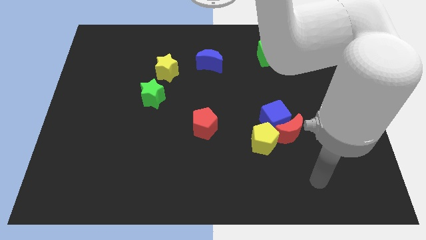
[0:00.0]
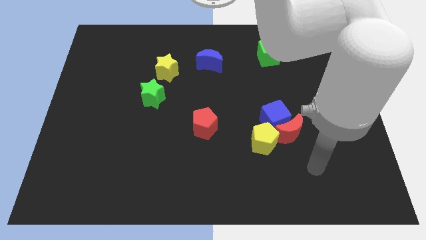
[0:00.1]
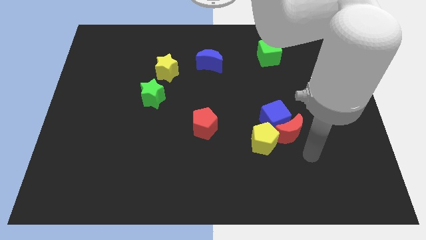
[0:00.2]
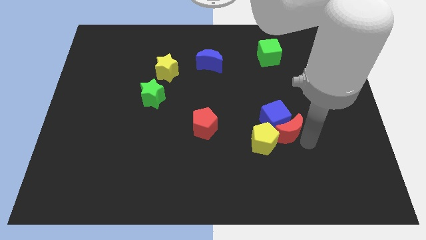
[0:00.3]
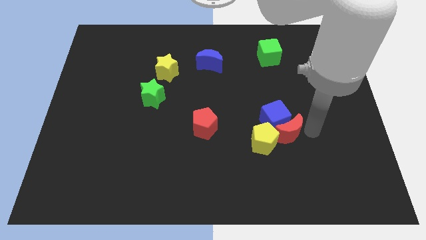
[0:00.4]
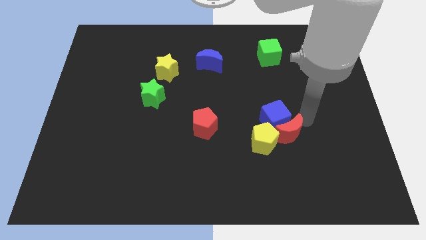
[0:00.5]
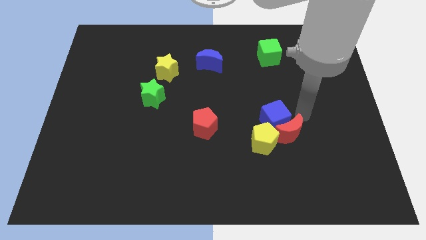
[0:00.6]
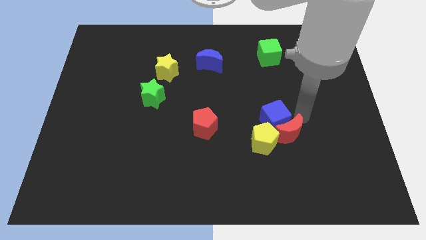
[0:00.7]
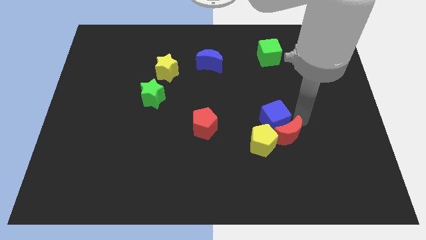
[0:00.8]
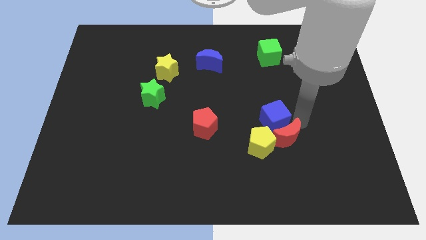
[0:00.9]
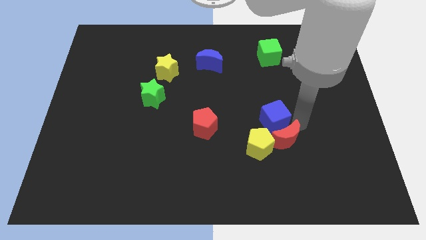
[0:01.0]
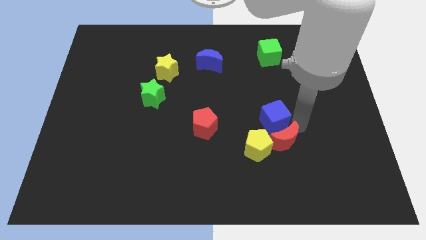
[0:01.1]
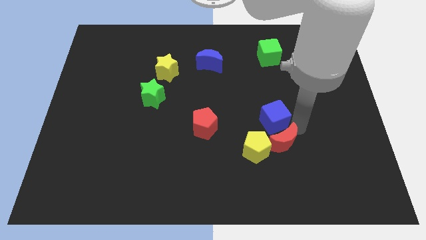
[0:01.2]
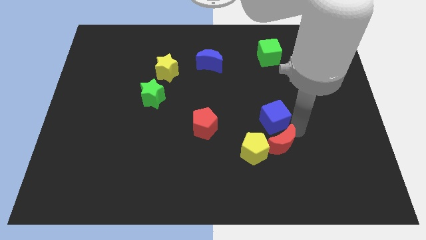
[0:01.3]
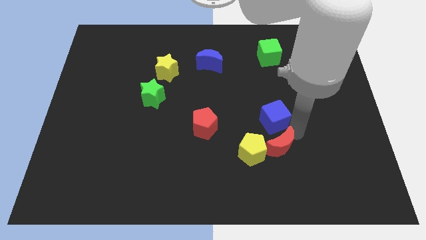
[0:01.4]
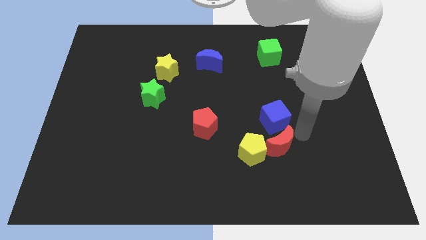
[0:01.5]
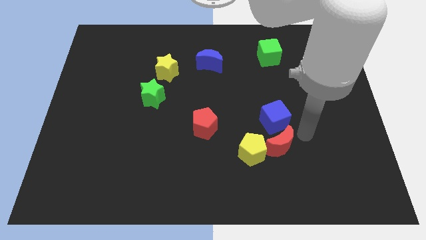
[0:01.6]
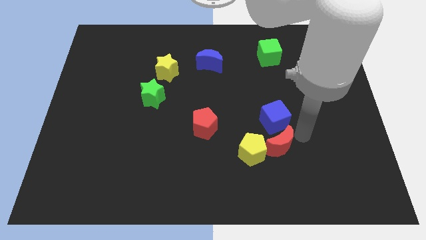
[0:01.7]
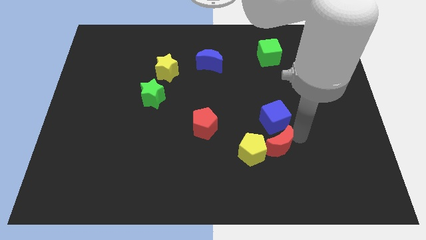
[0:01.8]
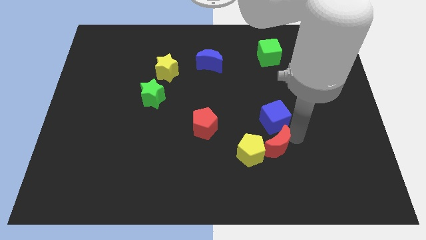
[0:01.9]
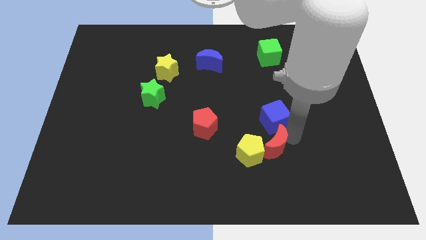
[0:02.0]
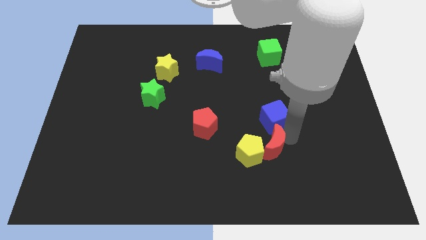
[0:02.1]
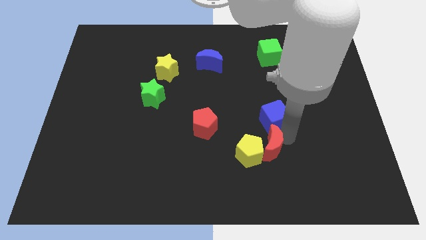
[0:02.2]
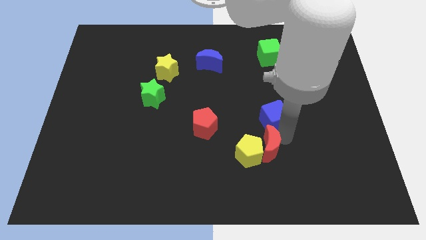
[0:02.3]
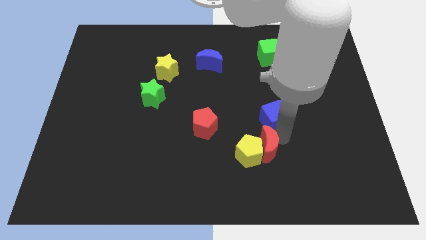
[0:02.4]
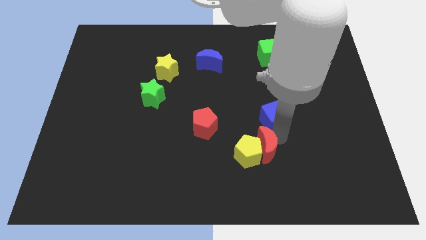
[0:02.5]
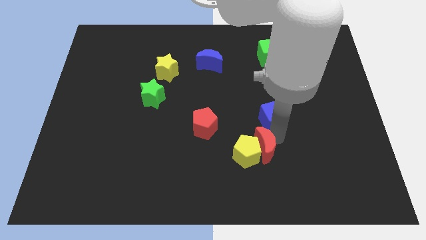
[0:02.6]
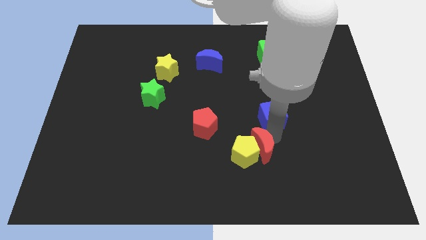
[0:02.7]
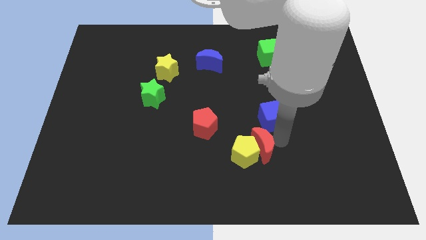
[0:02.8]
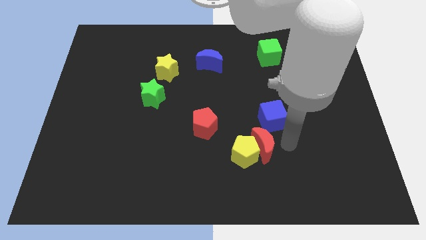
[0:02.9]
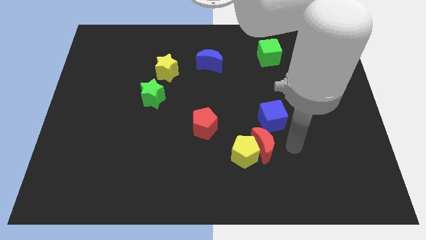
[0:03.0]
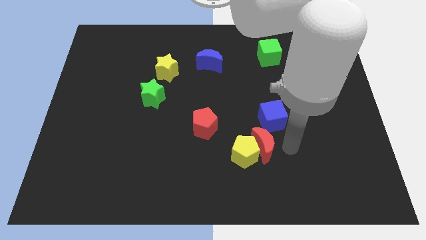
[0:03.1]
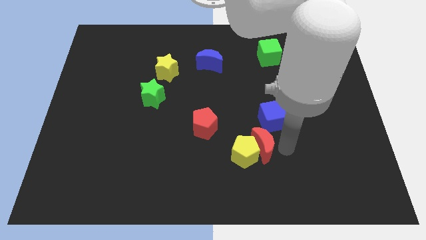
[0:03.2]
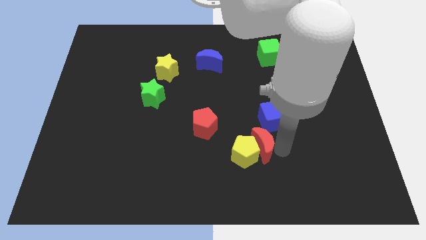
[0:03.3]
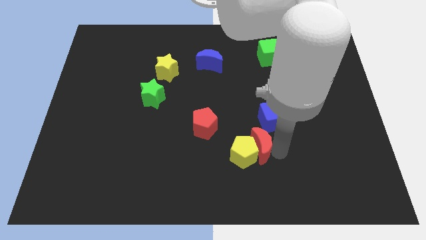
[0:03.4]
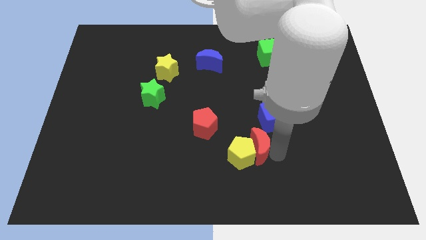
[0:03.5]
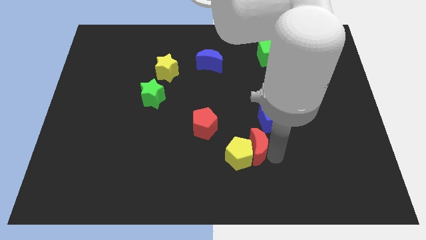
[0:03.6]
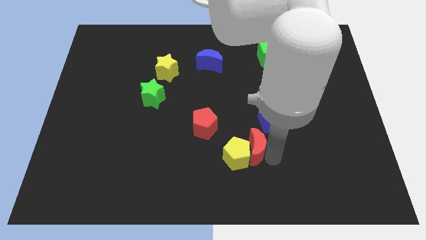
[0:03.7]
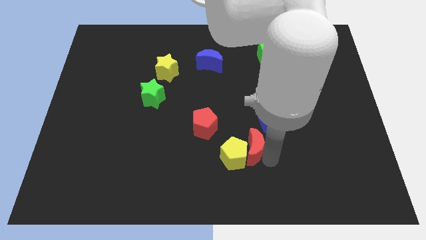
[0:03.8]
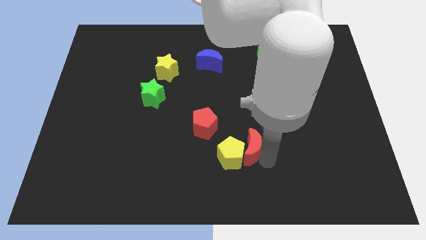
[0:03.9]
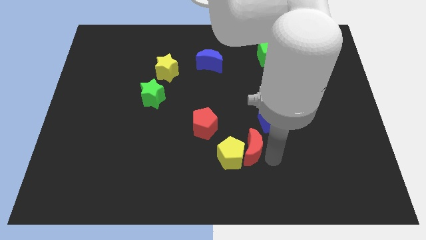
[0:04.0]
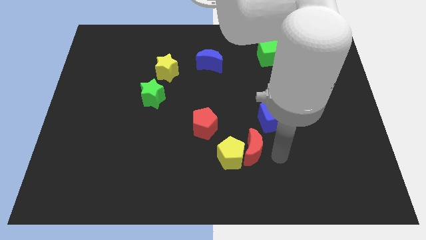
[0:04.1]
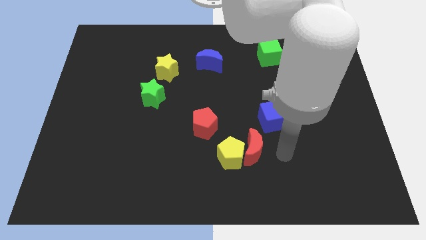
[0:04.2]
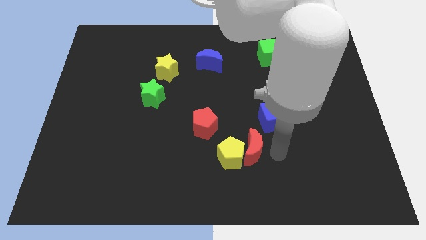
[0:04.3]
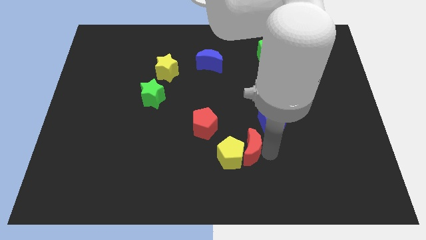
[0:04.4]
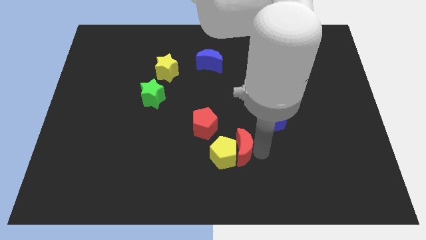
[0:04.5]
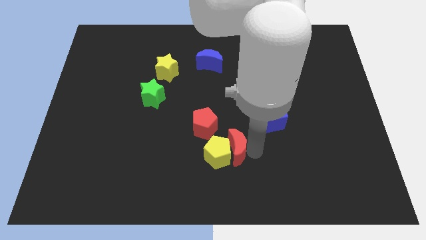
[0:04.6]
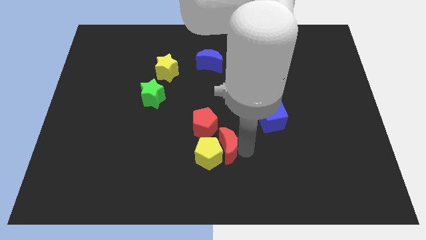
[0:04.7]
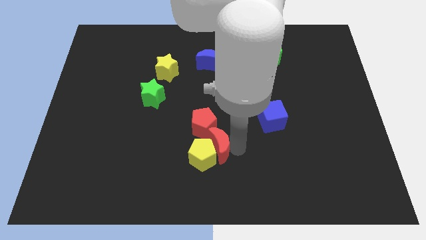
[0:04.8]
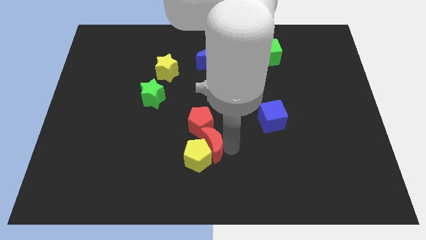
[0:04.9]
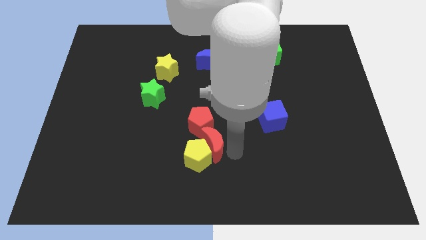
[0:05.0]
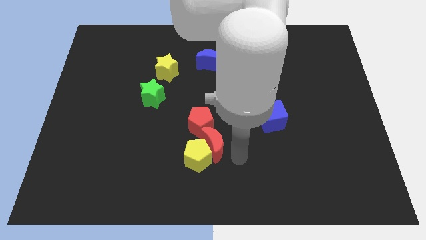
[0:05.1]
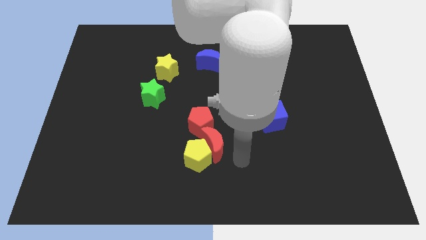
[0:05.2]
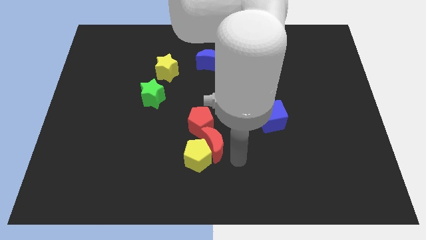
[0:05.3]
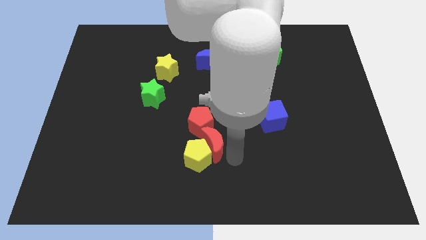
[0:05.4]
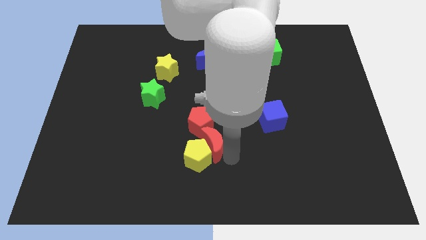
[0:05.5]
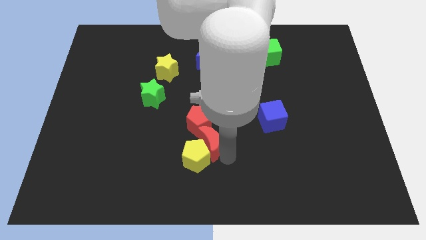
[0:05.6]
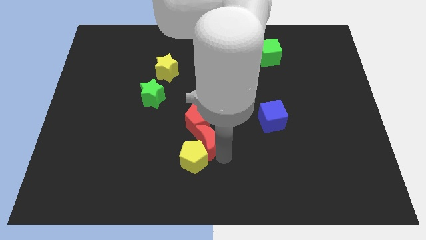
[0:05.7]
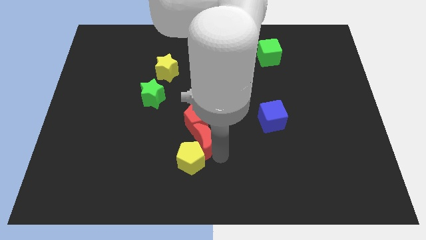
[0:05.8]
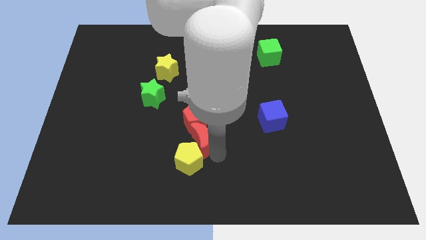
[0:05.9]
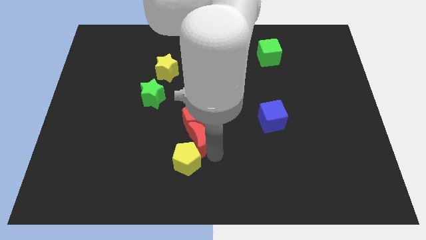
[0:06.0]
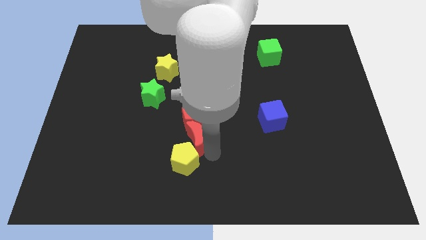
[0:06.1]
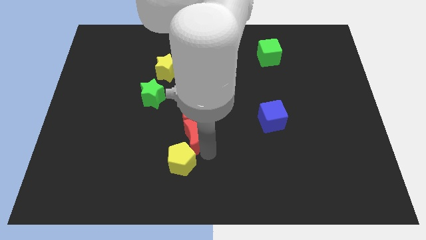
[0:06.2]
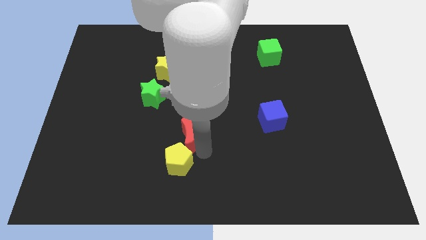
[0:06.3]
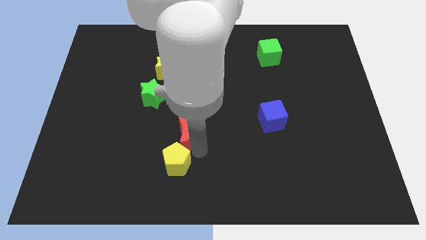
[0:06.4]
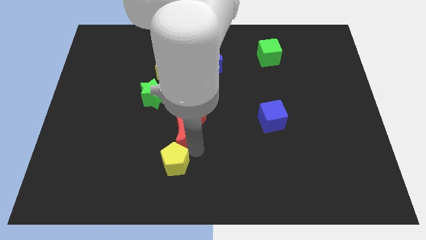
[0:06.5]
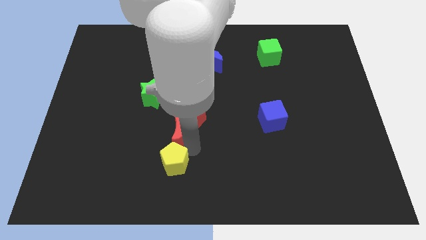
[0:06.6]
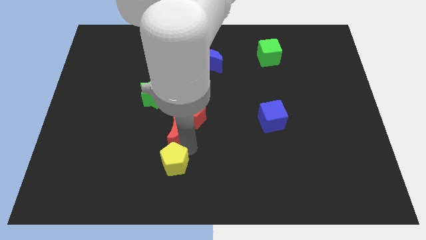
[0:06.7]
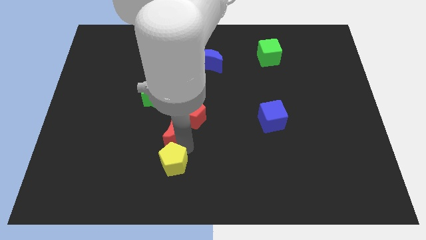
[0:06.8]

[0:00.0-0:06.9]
put the red moon to the bottom right of the green star
